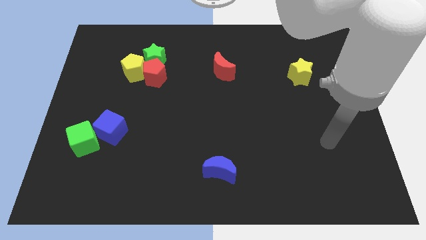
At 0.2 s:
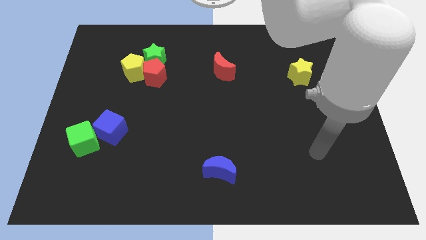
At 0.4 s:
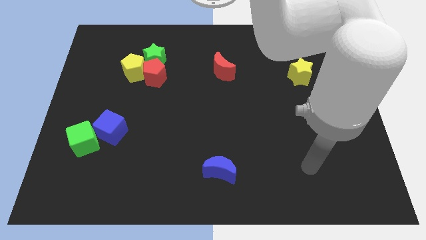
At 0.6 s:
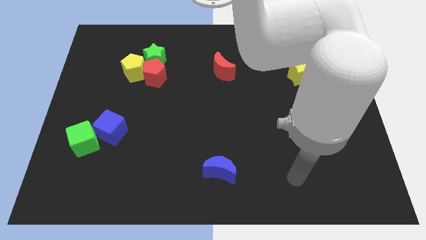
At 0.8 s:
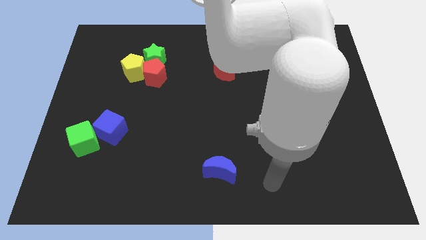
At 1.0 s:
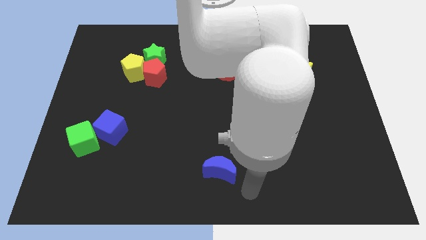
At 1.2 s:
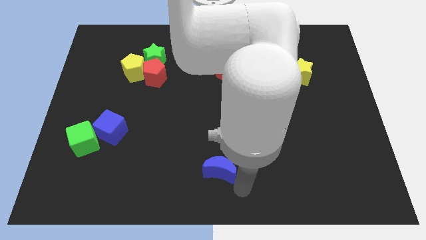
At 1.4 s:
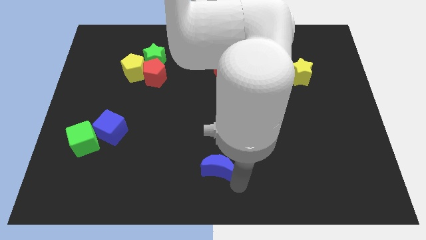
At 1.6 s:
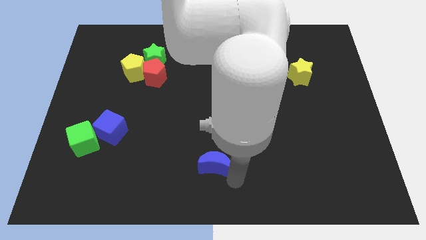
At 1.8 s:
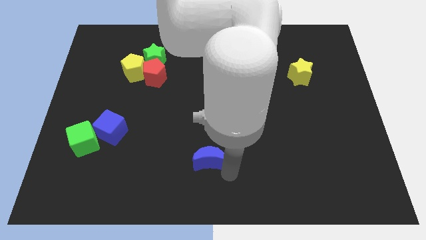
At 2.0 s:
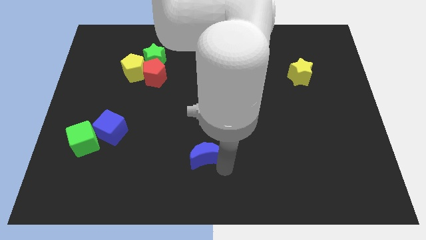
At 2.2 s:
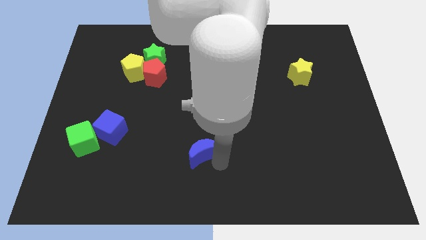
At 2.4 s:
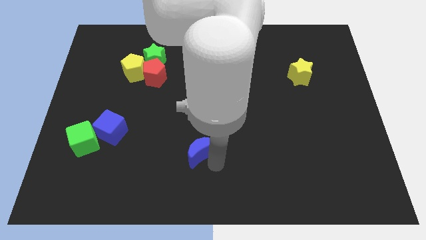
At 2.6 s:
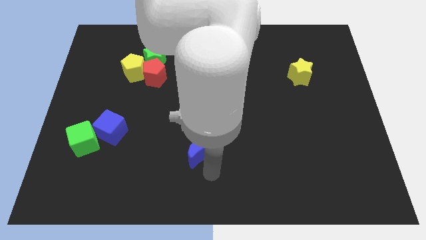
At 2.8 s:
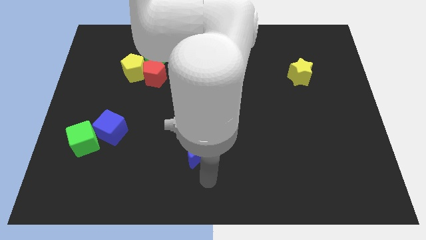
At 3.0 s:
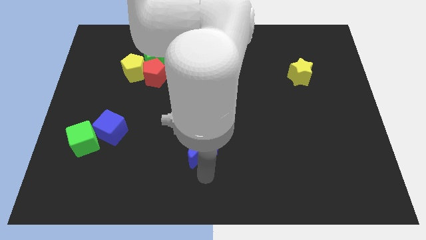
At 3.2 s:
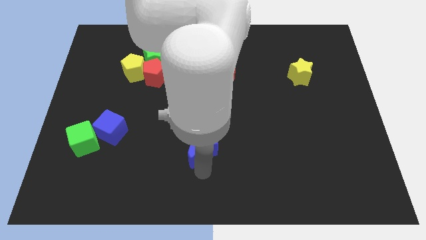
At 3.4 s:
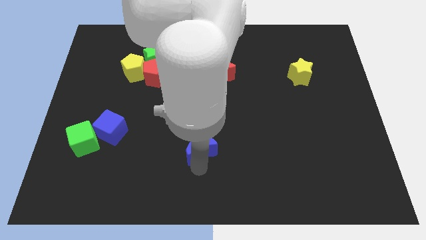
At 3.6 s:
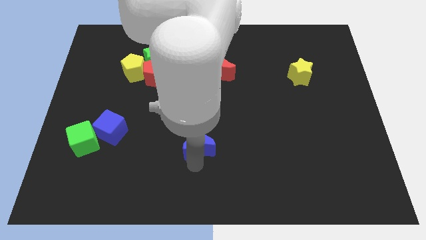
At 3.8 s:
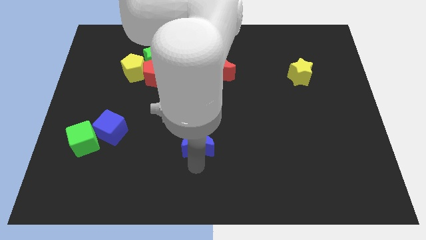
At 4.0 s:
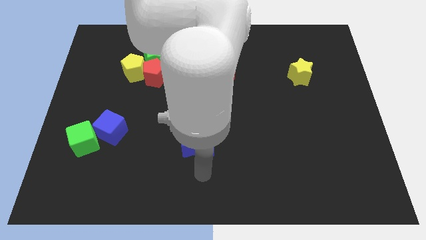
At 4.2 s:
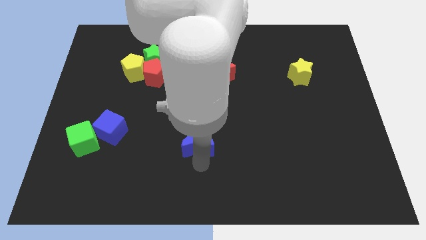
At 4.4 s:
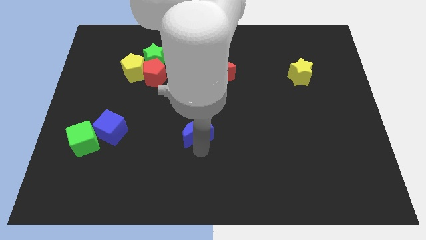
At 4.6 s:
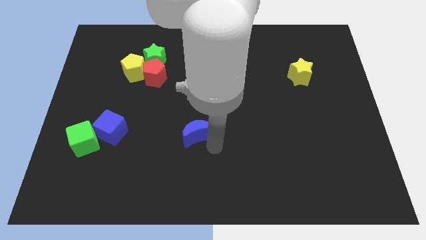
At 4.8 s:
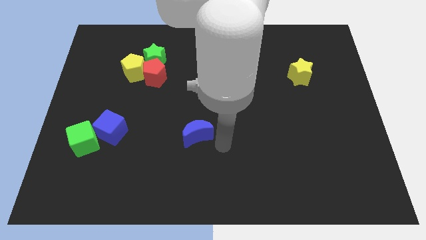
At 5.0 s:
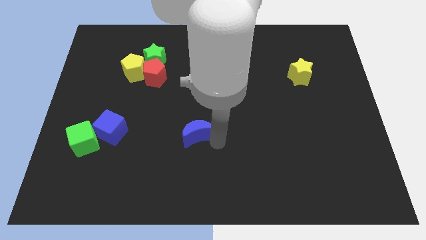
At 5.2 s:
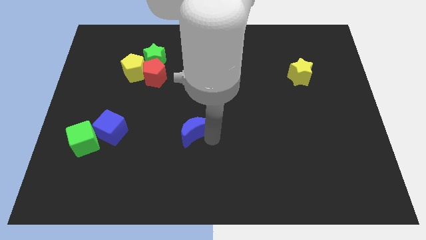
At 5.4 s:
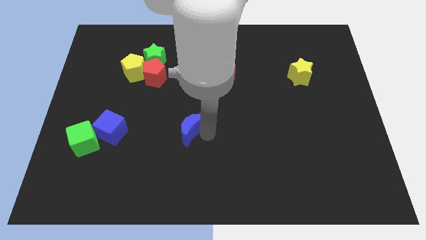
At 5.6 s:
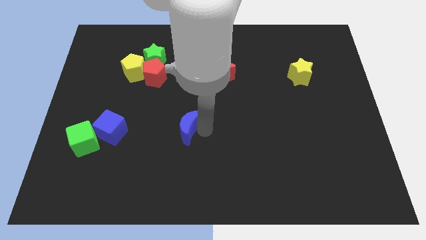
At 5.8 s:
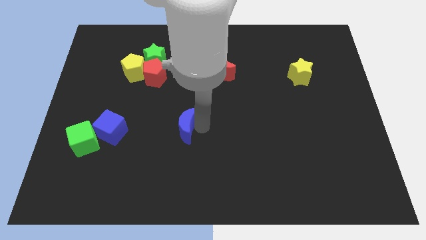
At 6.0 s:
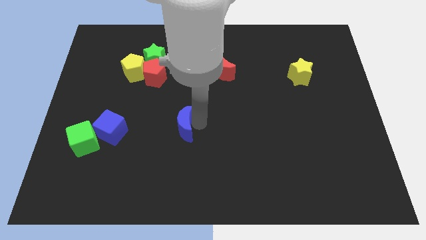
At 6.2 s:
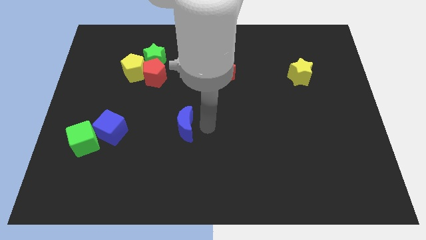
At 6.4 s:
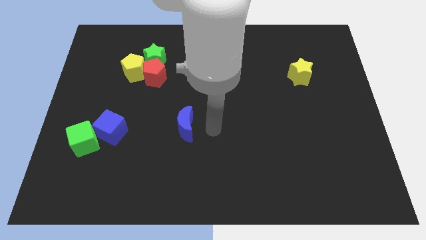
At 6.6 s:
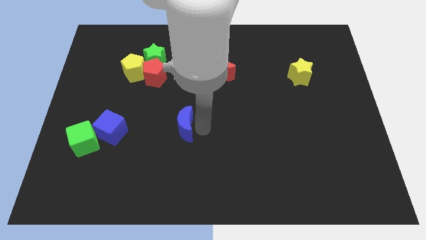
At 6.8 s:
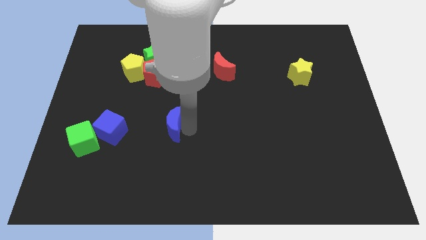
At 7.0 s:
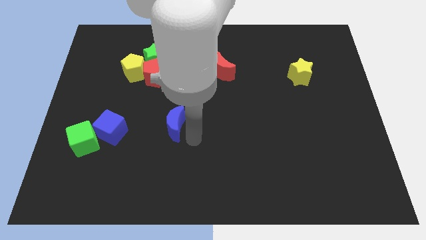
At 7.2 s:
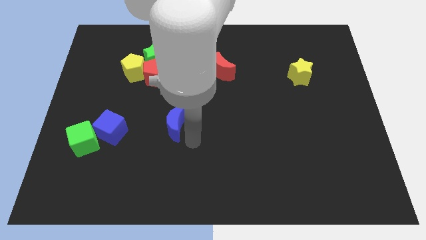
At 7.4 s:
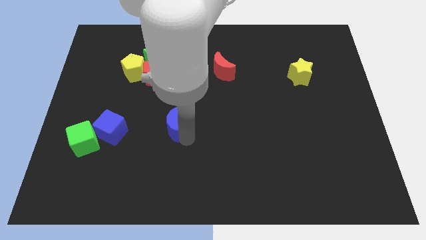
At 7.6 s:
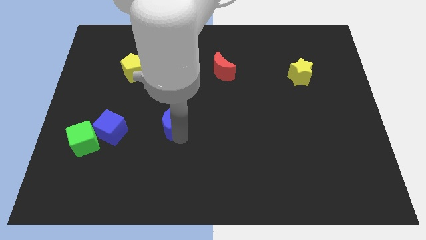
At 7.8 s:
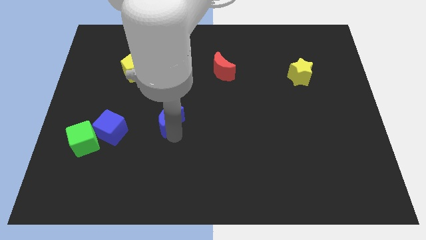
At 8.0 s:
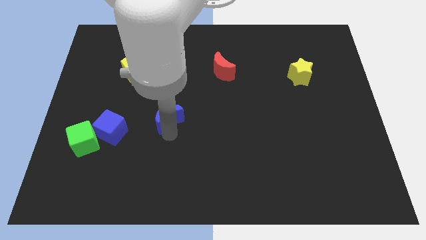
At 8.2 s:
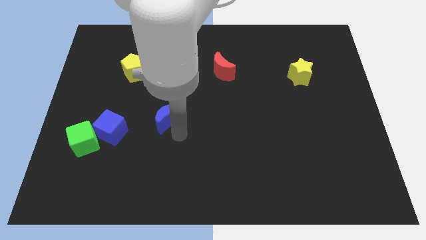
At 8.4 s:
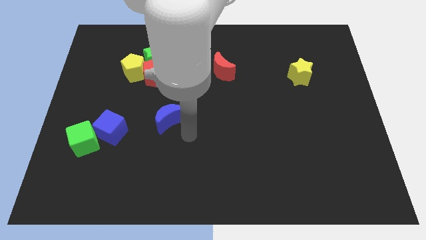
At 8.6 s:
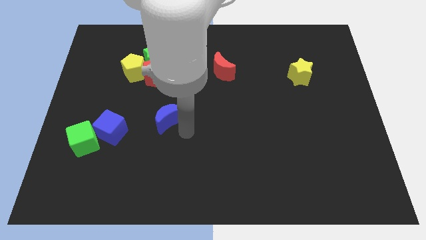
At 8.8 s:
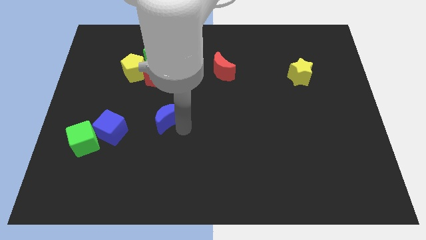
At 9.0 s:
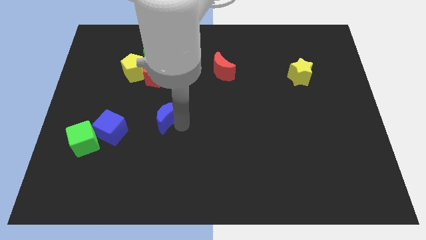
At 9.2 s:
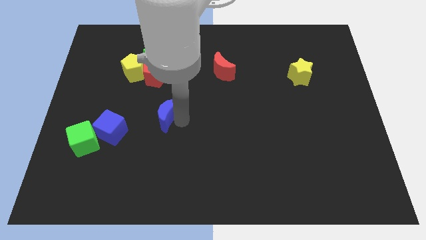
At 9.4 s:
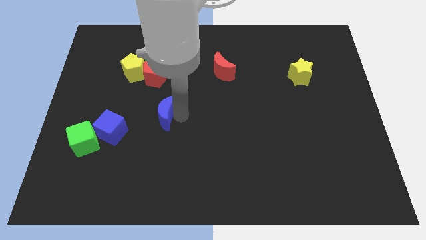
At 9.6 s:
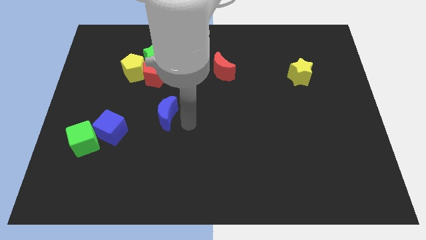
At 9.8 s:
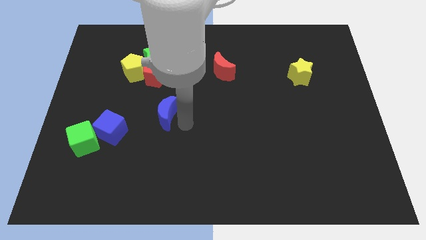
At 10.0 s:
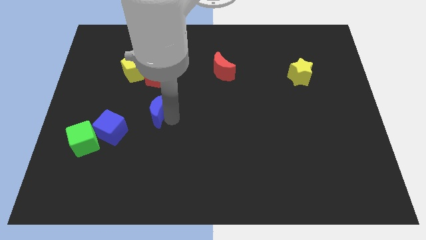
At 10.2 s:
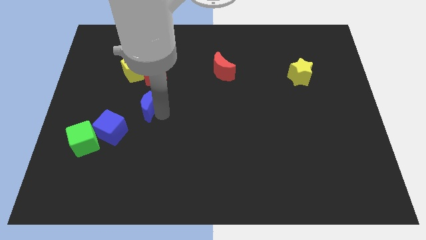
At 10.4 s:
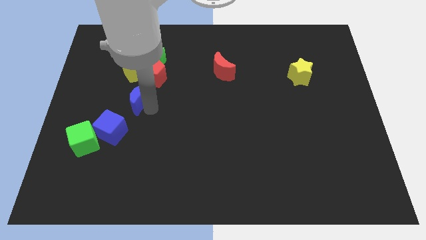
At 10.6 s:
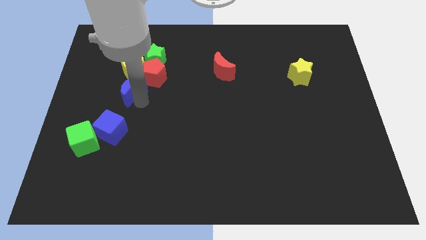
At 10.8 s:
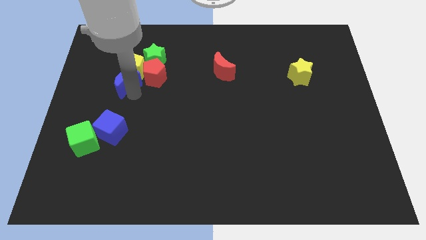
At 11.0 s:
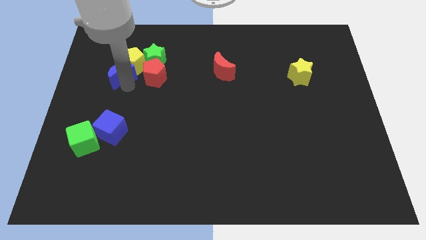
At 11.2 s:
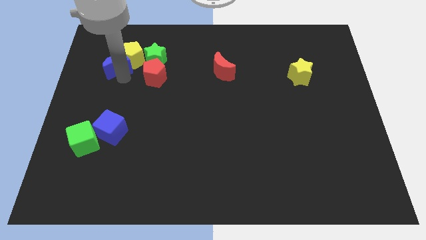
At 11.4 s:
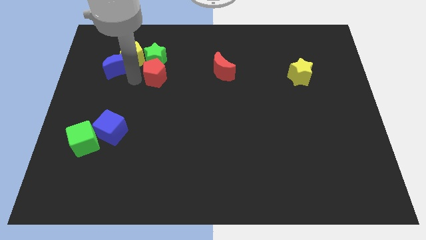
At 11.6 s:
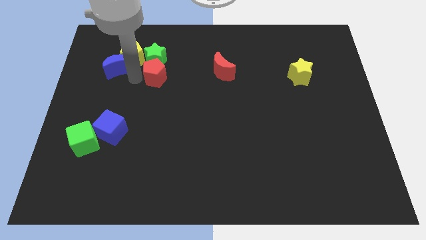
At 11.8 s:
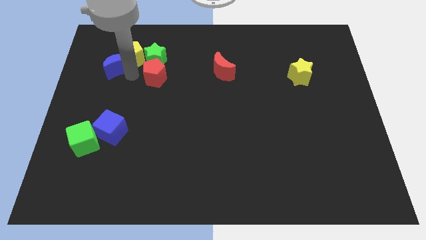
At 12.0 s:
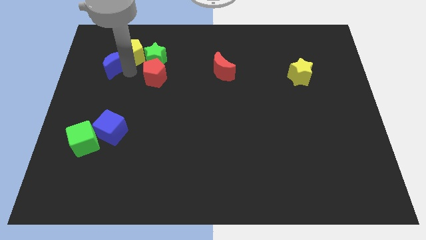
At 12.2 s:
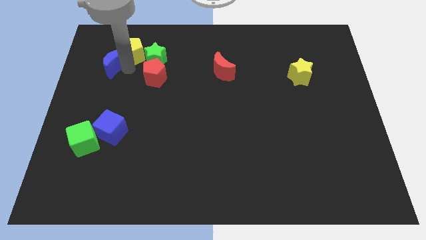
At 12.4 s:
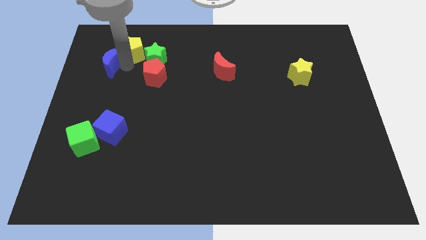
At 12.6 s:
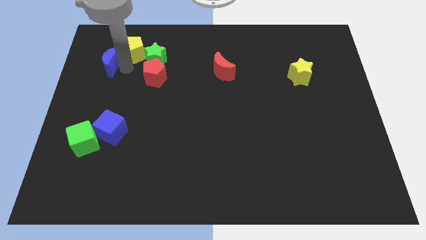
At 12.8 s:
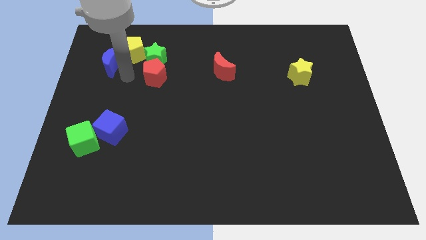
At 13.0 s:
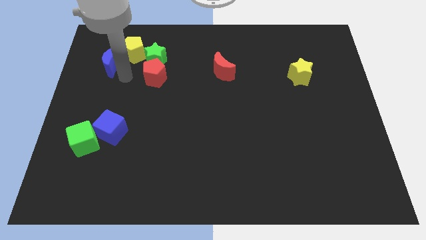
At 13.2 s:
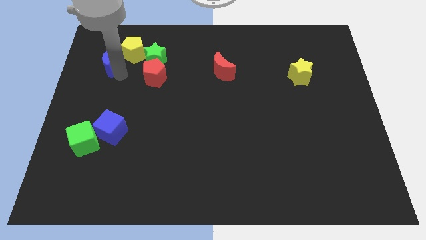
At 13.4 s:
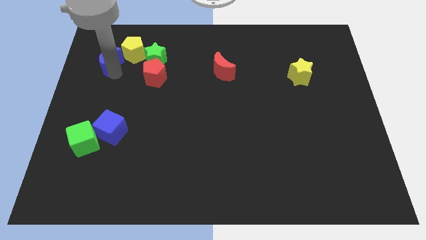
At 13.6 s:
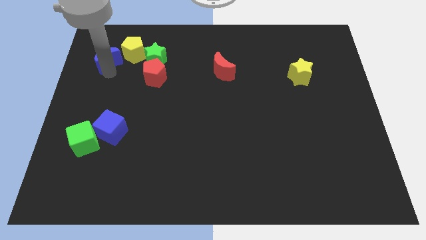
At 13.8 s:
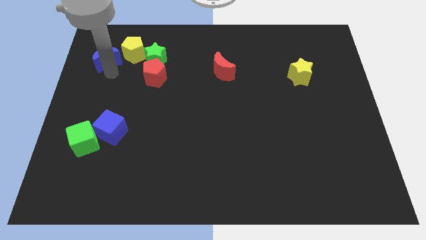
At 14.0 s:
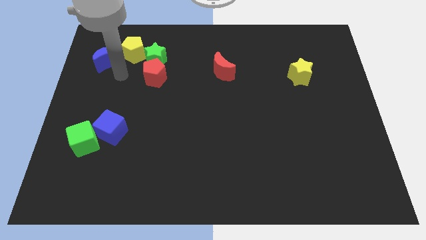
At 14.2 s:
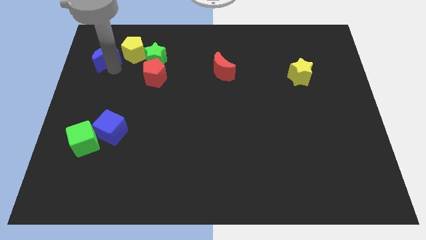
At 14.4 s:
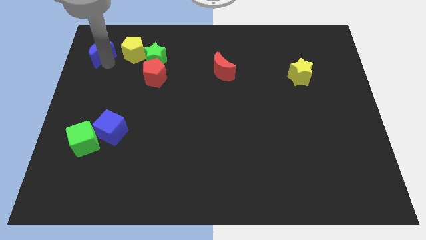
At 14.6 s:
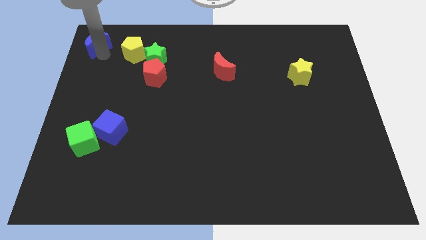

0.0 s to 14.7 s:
put the blue moon to the top left corner
